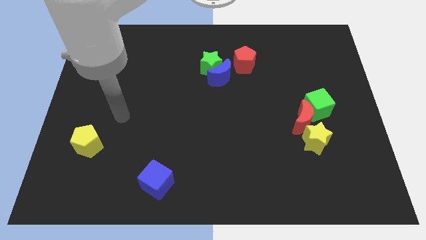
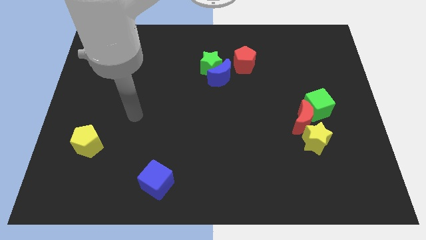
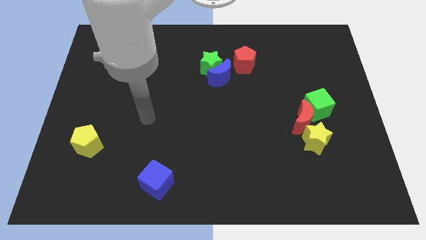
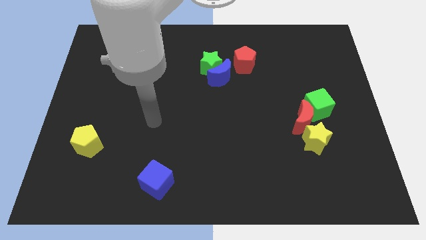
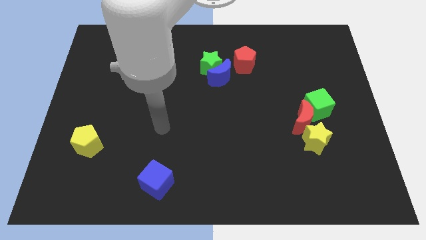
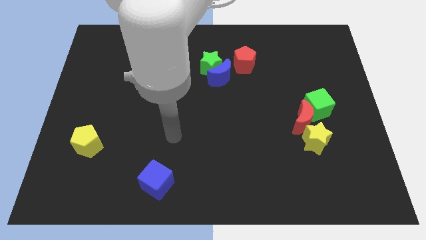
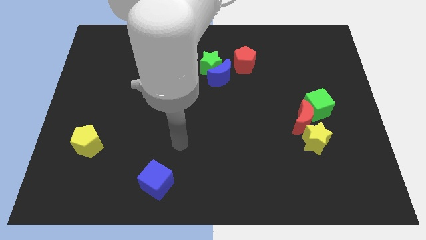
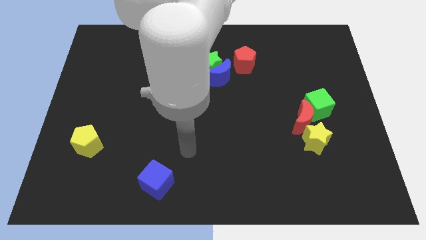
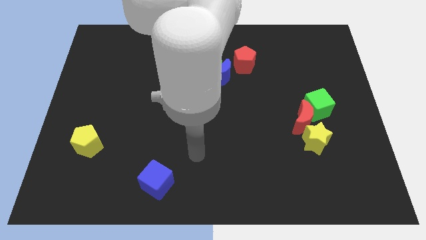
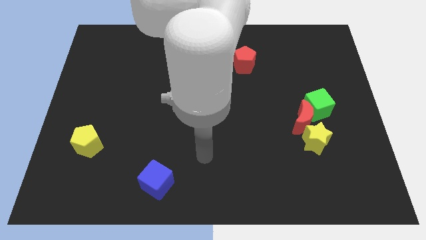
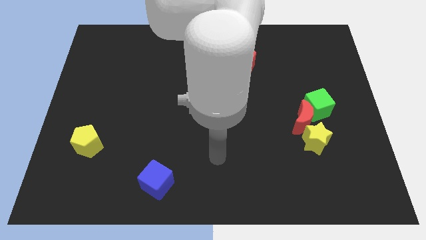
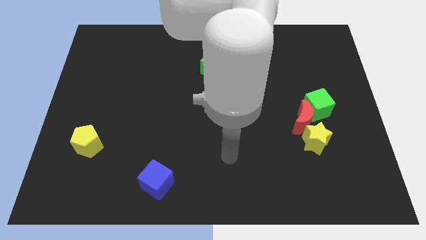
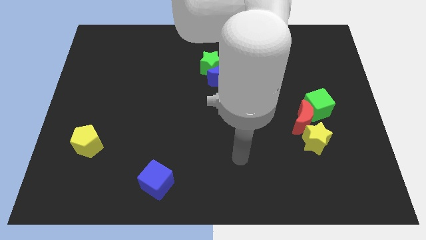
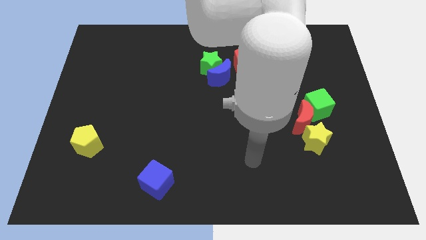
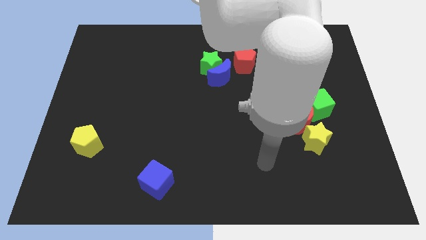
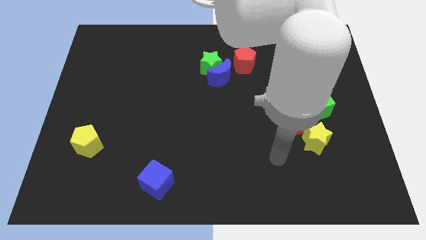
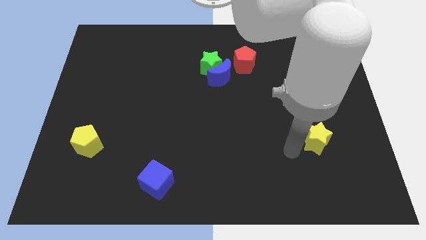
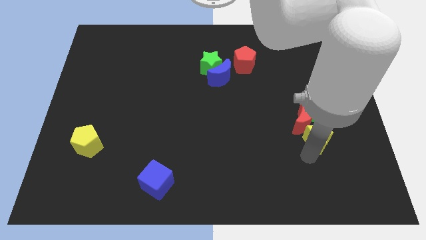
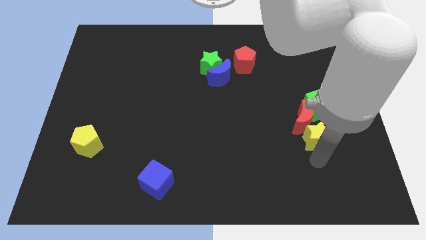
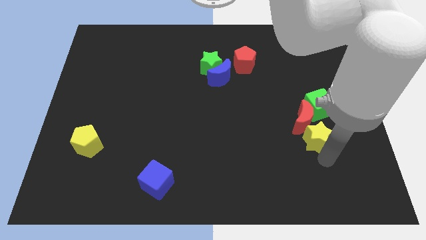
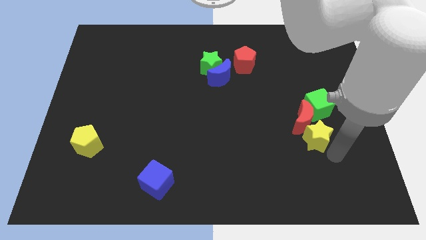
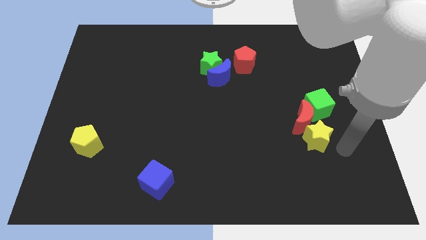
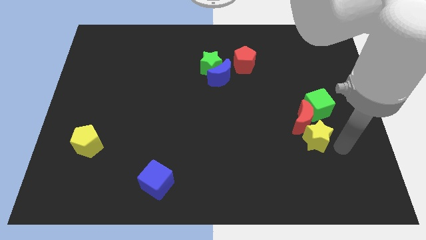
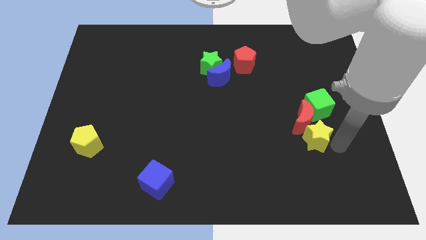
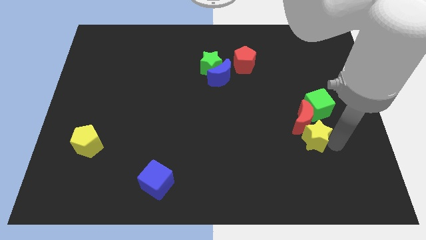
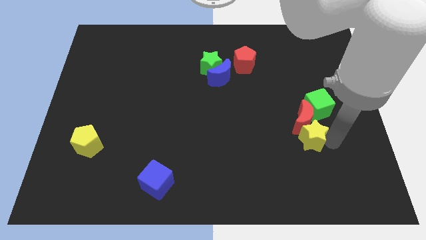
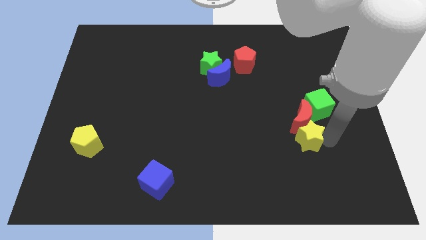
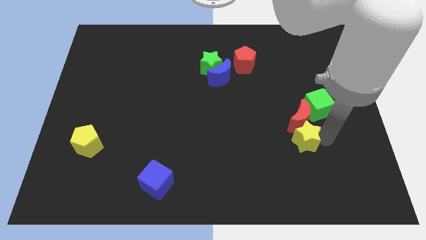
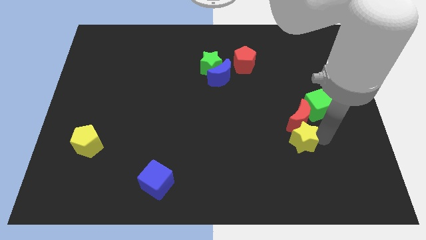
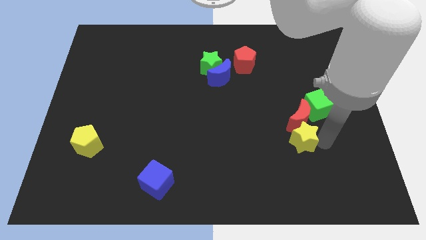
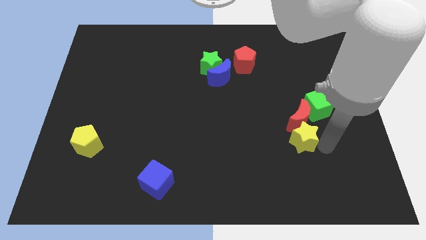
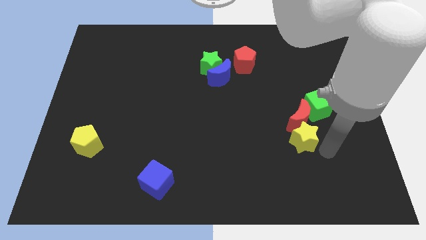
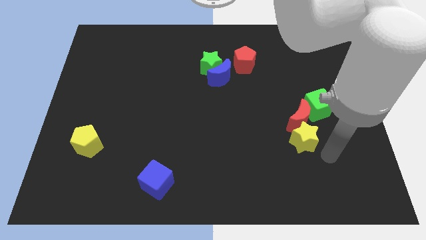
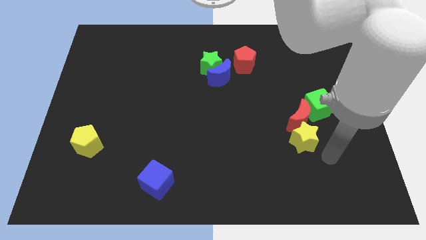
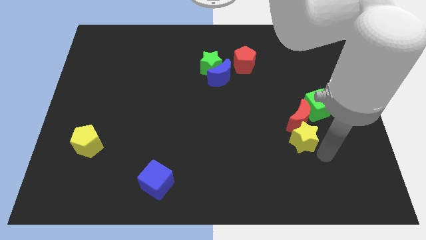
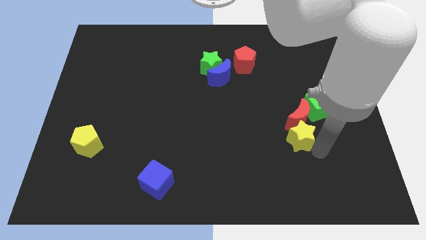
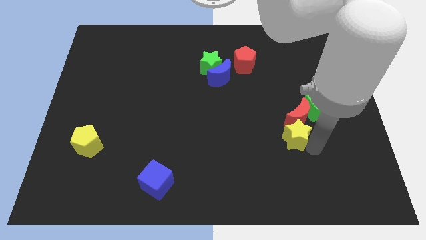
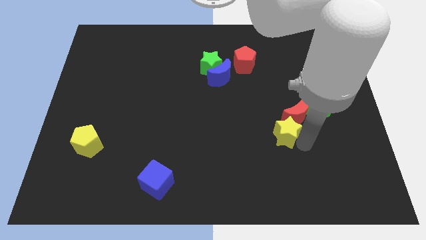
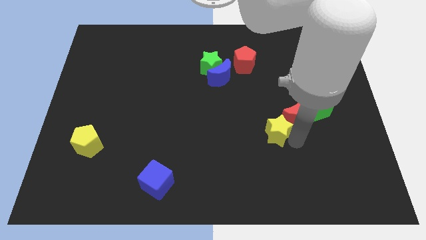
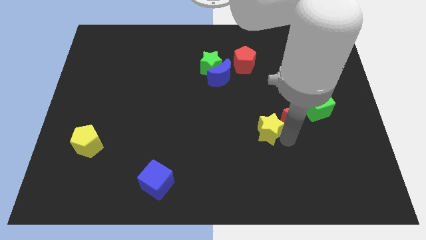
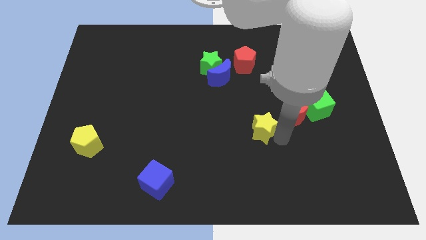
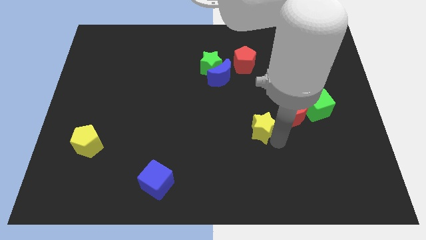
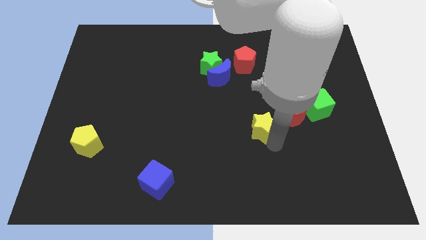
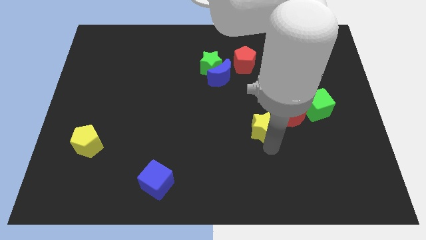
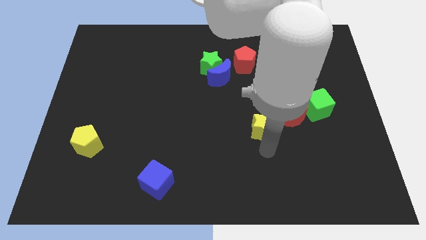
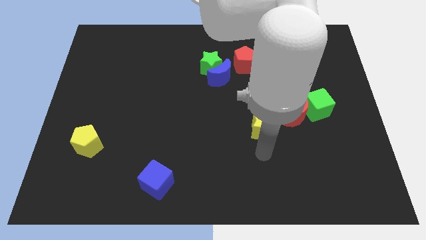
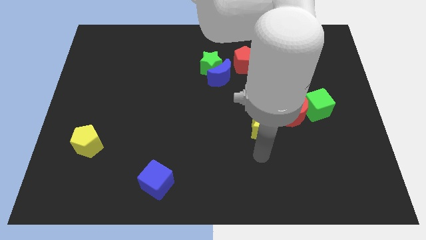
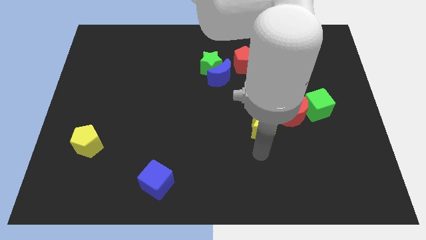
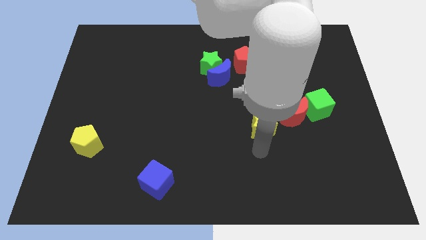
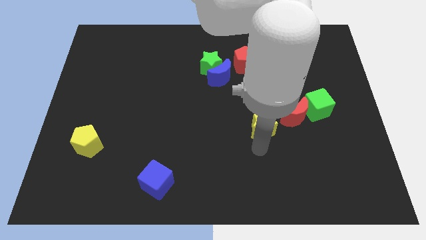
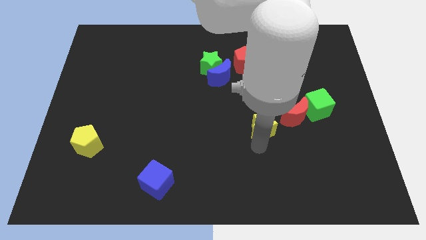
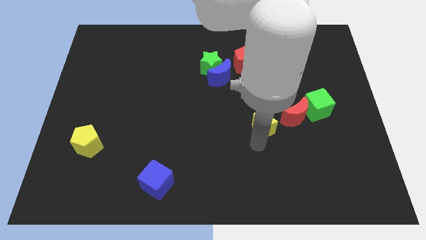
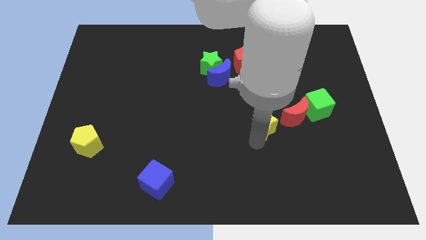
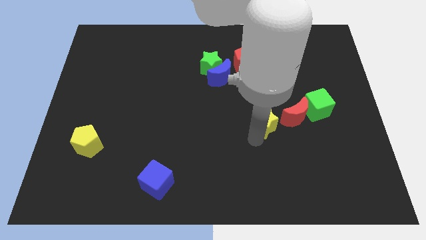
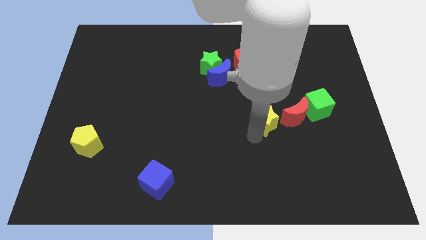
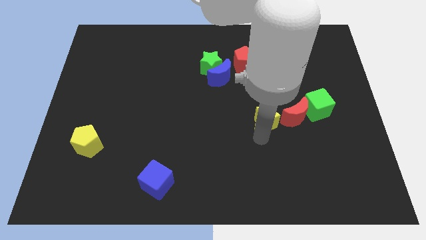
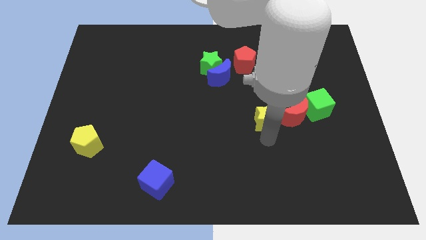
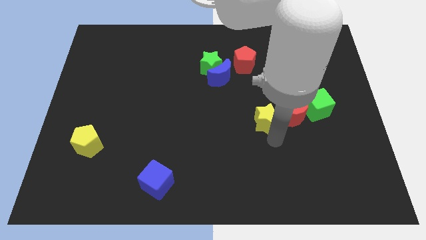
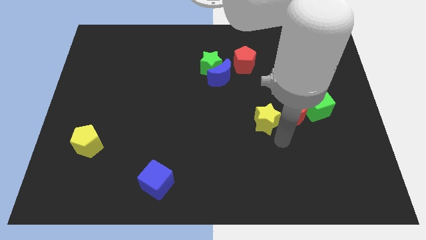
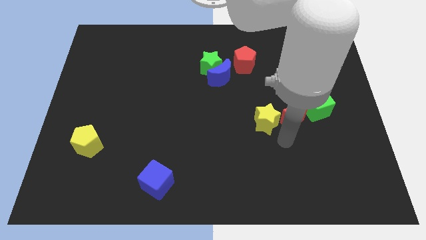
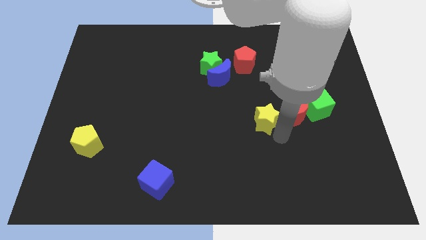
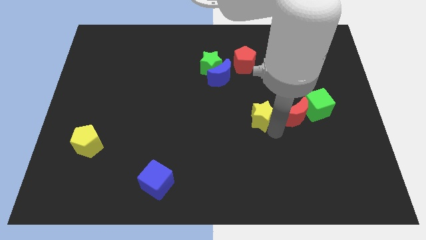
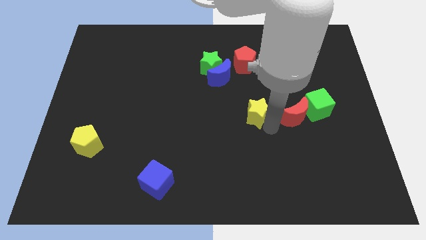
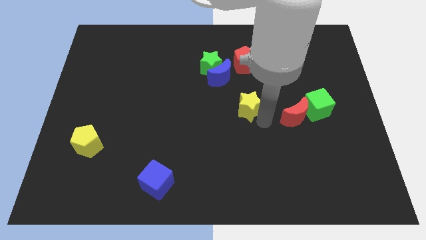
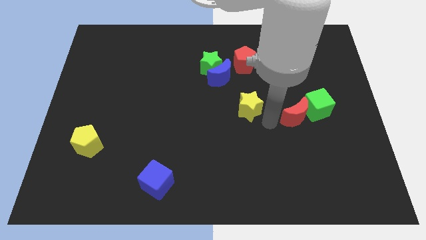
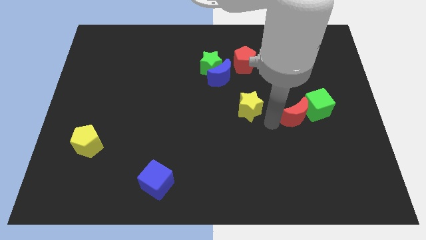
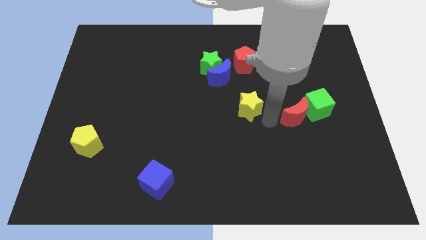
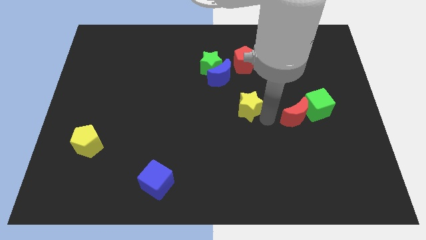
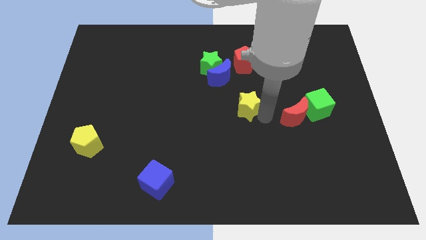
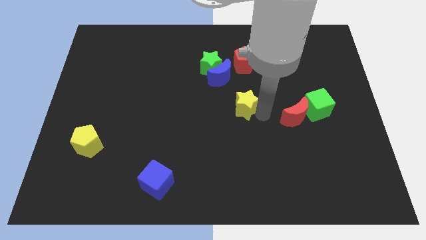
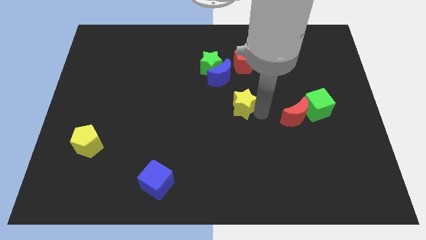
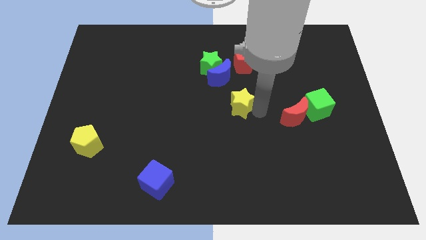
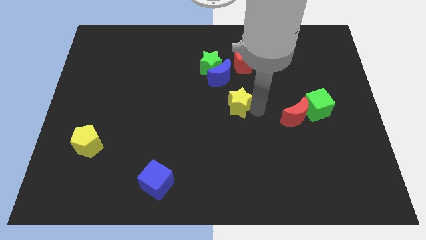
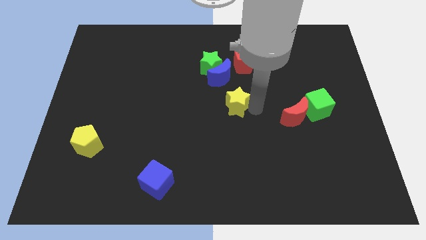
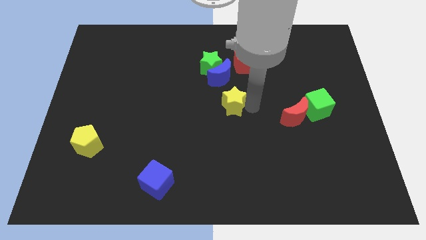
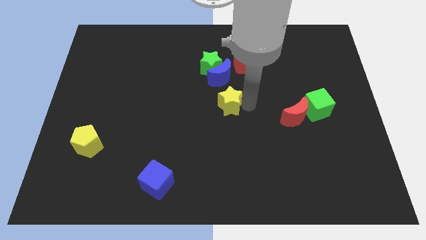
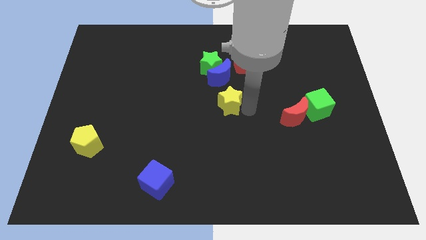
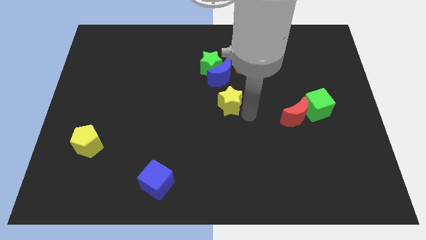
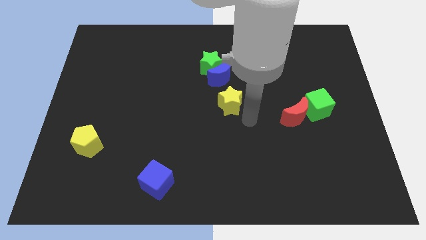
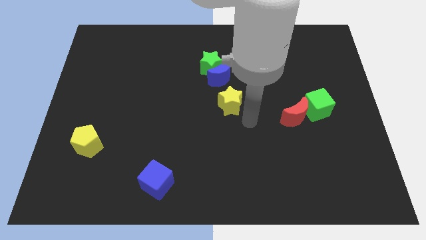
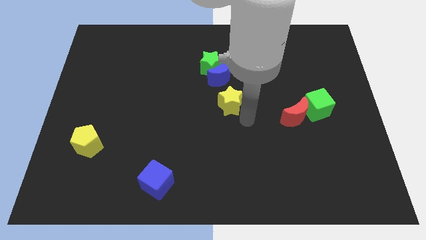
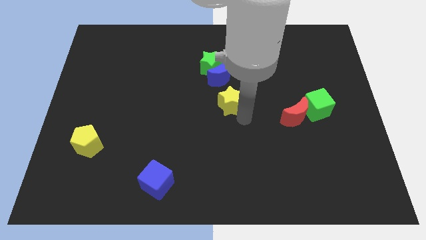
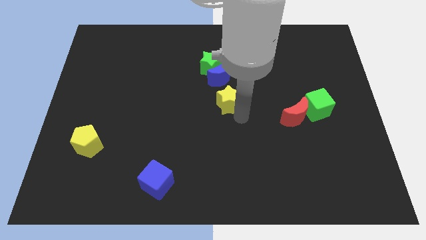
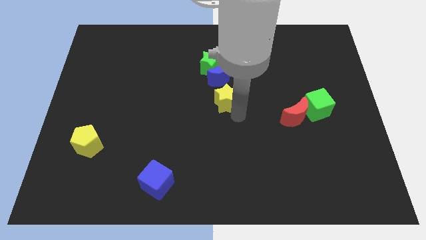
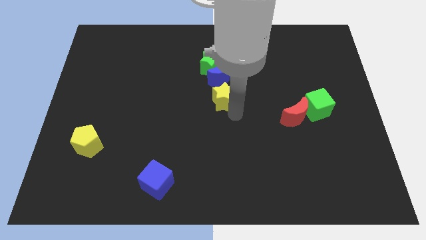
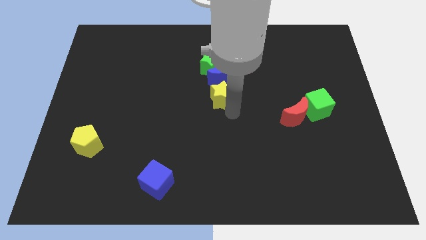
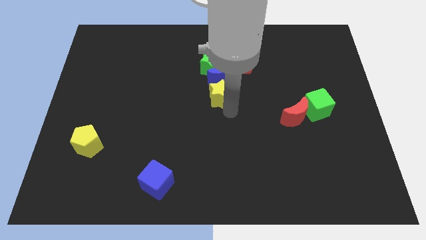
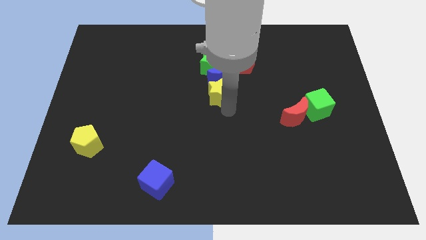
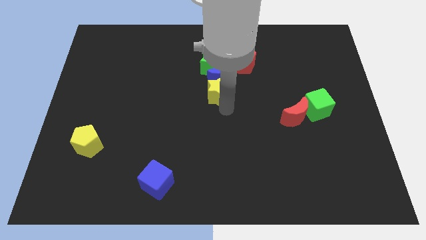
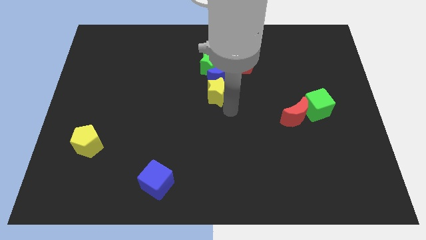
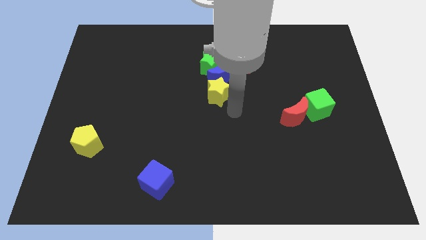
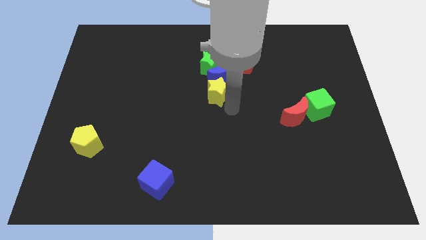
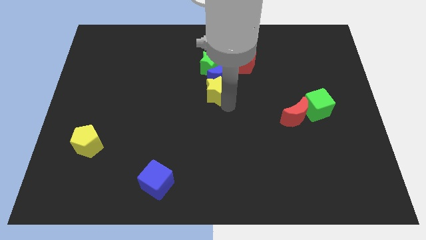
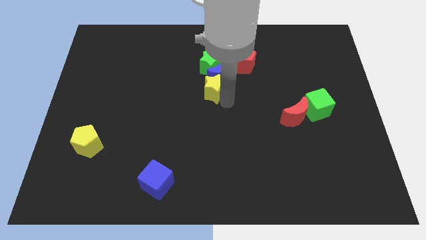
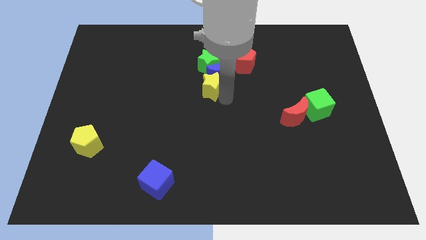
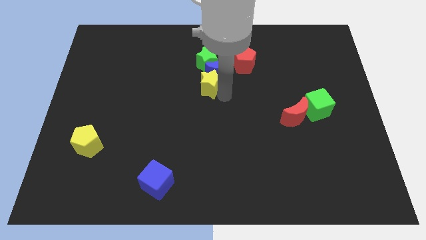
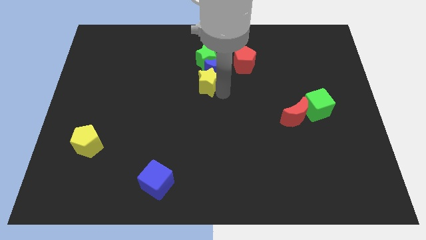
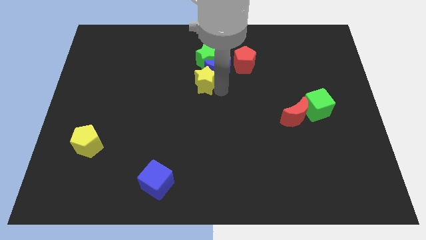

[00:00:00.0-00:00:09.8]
push the yellow star left of the blue moon
